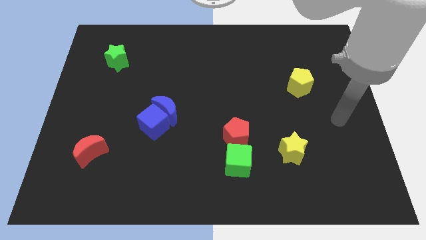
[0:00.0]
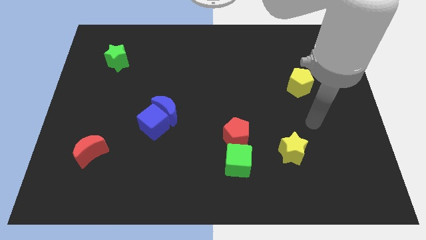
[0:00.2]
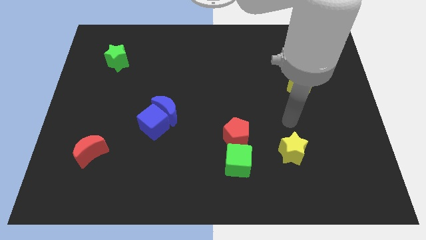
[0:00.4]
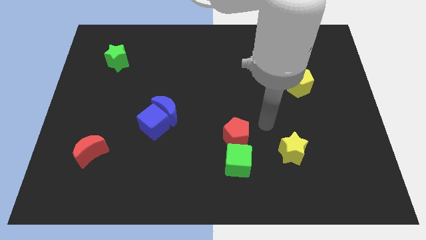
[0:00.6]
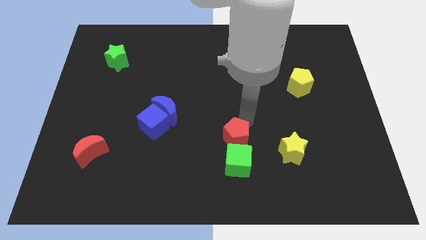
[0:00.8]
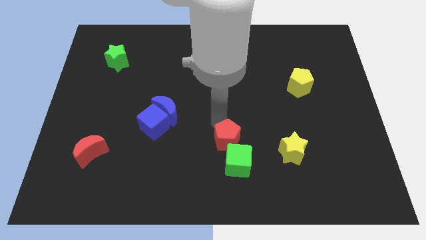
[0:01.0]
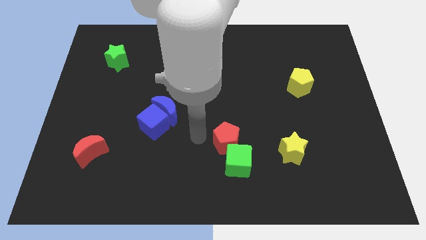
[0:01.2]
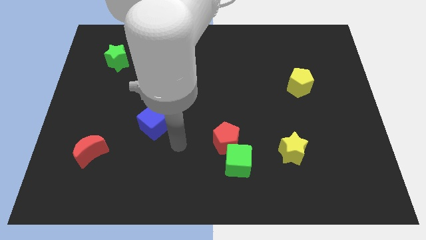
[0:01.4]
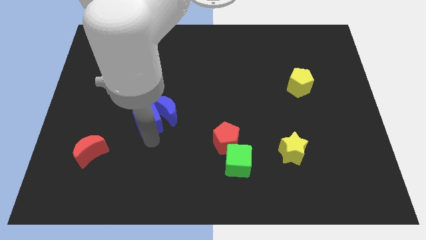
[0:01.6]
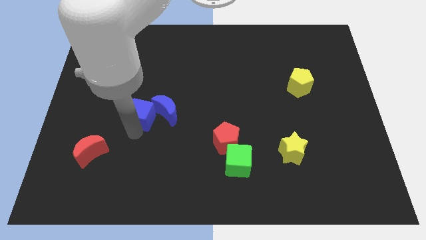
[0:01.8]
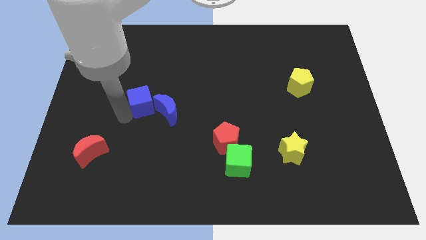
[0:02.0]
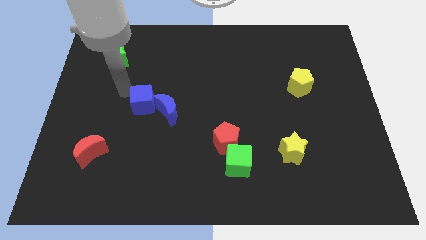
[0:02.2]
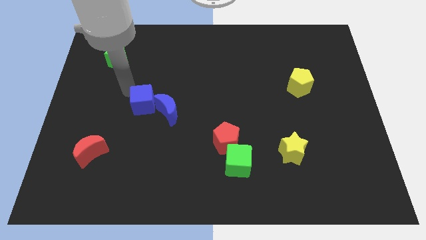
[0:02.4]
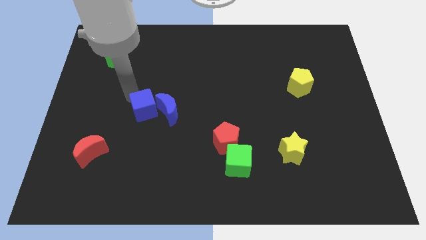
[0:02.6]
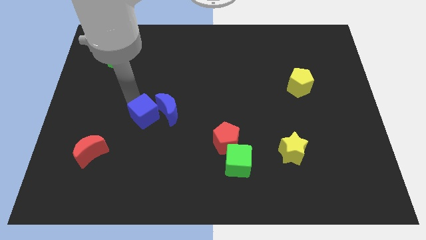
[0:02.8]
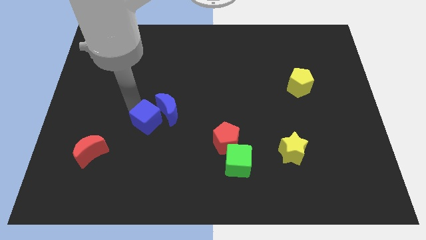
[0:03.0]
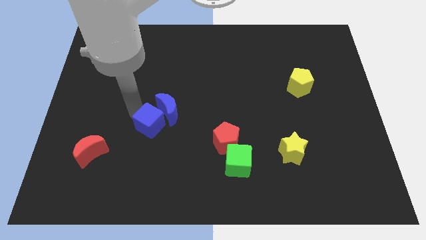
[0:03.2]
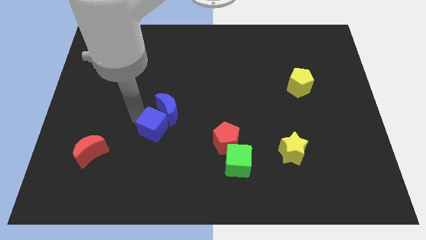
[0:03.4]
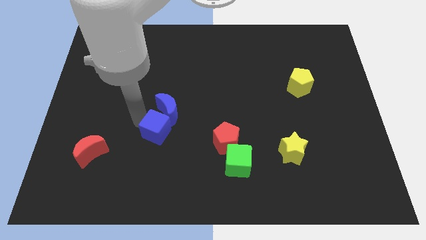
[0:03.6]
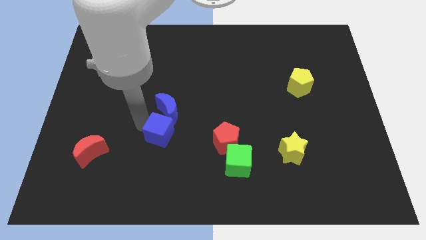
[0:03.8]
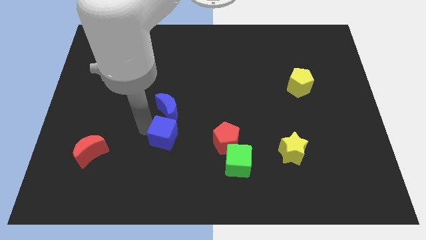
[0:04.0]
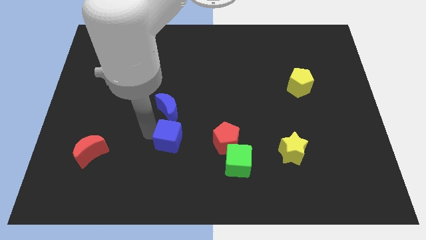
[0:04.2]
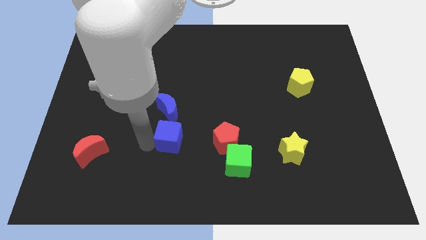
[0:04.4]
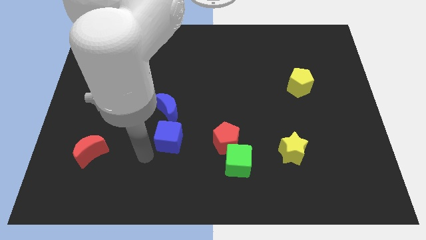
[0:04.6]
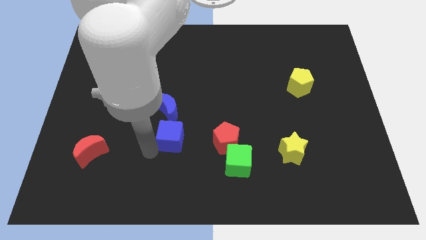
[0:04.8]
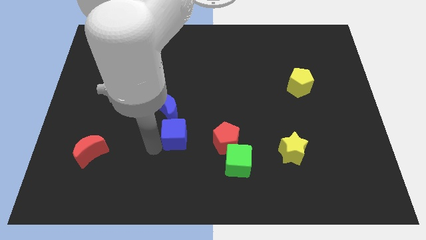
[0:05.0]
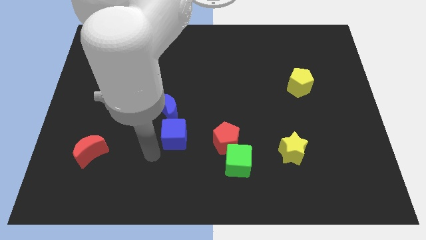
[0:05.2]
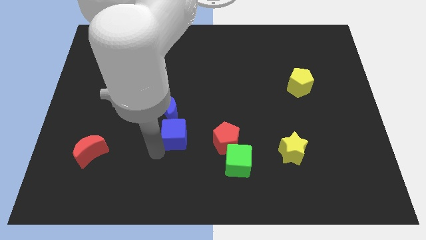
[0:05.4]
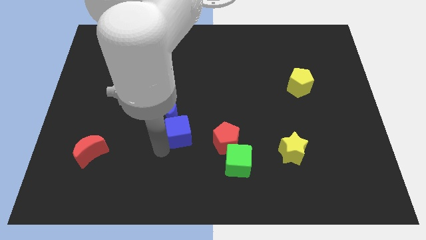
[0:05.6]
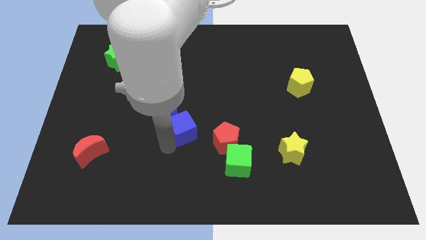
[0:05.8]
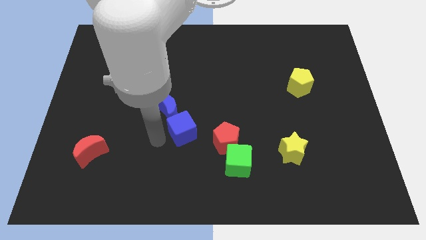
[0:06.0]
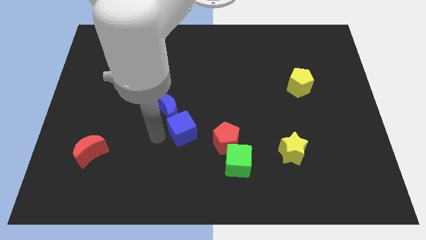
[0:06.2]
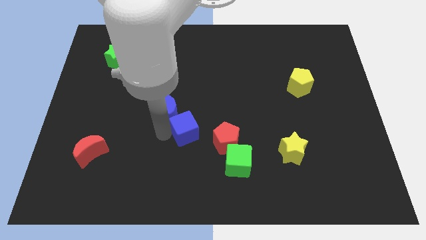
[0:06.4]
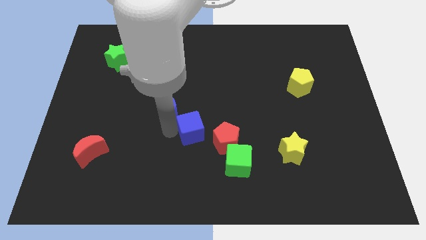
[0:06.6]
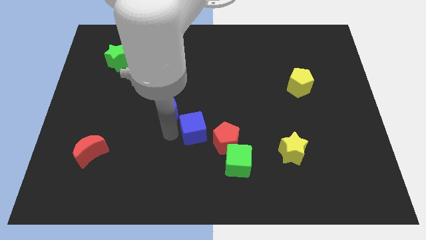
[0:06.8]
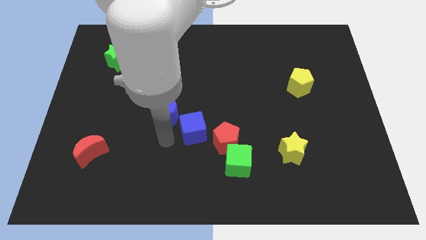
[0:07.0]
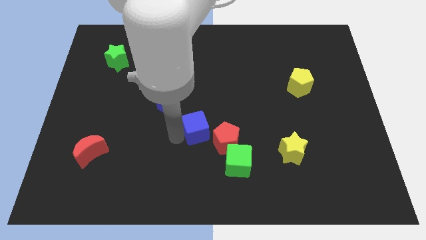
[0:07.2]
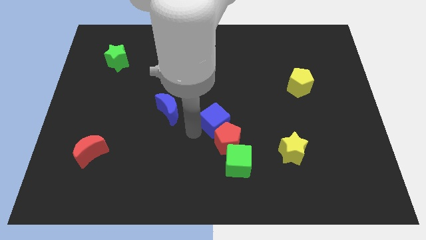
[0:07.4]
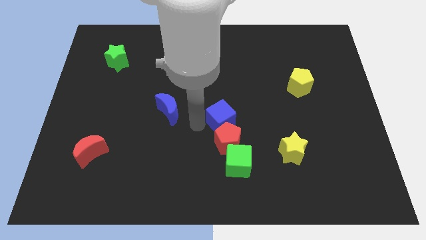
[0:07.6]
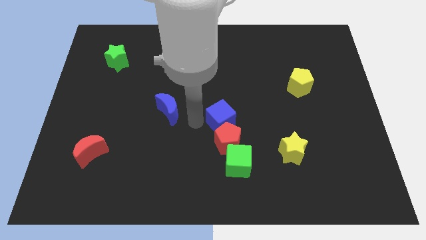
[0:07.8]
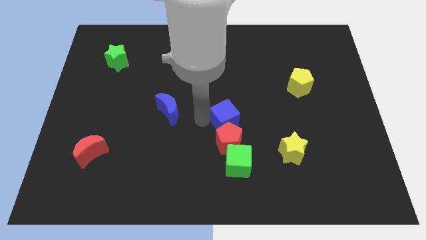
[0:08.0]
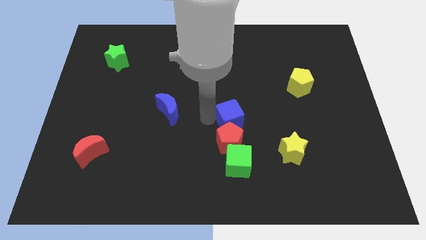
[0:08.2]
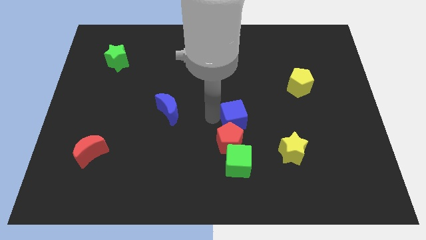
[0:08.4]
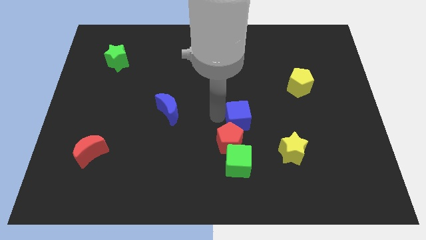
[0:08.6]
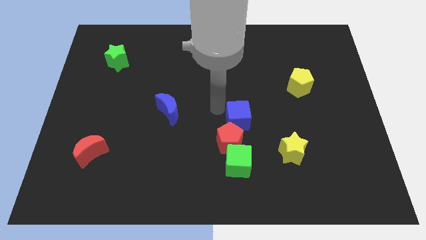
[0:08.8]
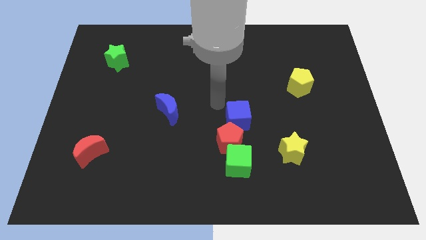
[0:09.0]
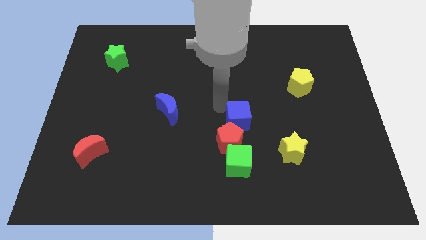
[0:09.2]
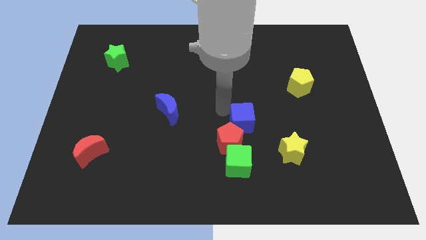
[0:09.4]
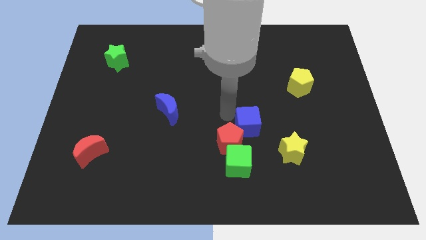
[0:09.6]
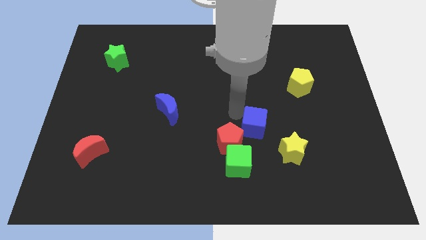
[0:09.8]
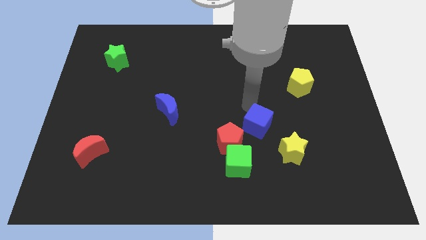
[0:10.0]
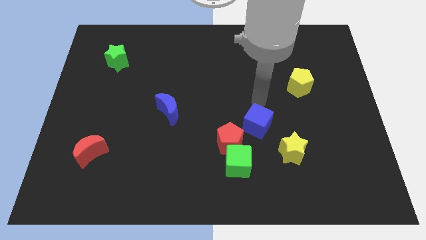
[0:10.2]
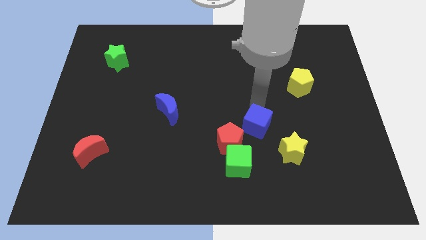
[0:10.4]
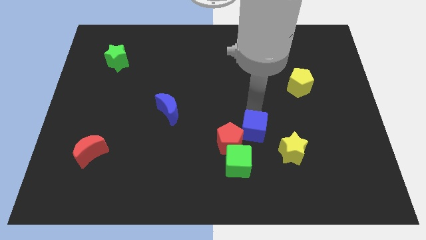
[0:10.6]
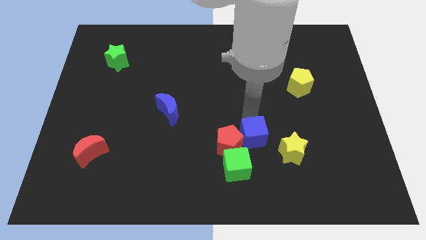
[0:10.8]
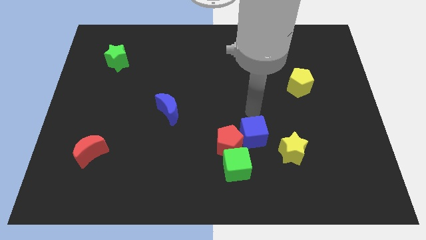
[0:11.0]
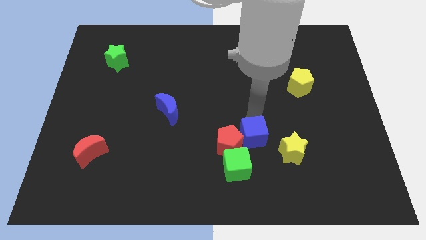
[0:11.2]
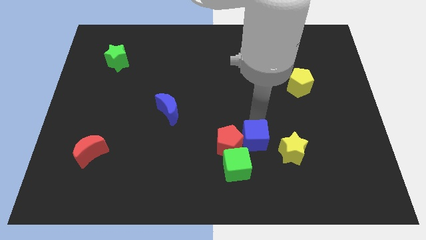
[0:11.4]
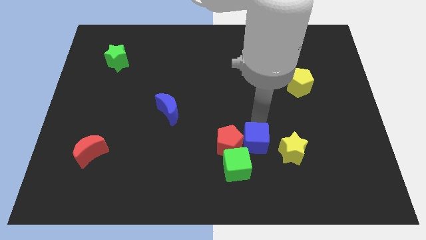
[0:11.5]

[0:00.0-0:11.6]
move the blue cube to the bottom right of the red pentagon

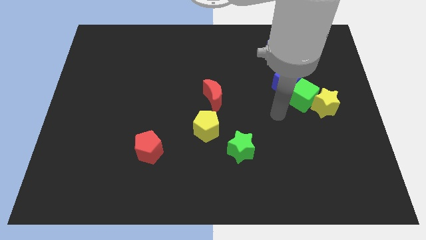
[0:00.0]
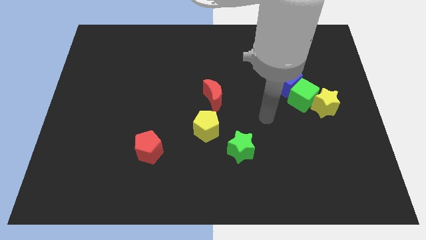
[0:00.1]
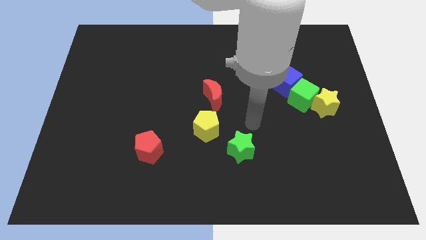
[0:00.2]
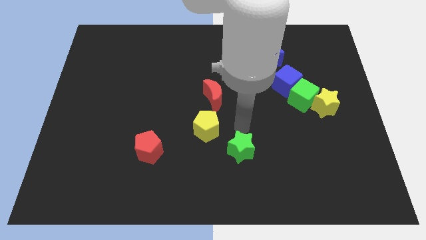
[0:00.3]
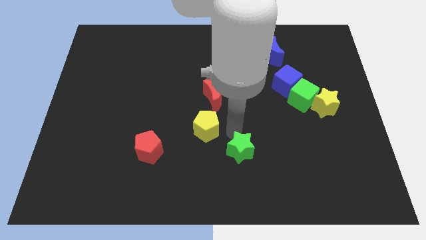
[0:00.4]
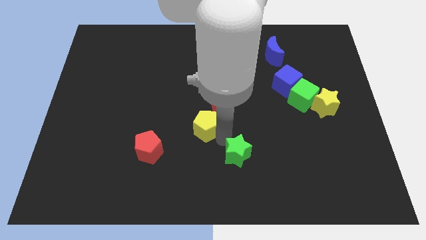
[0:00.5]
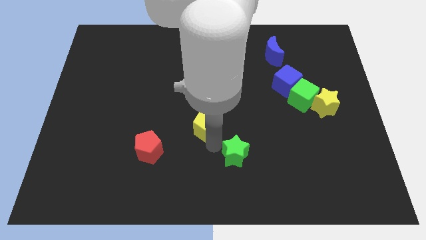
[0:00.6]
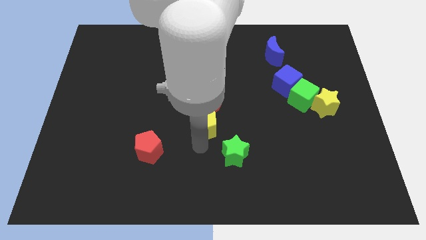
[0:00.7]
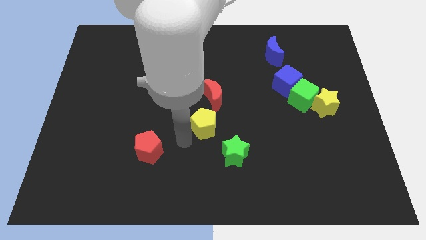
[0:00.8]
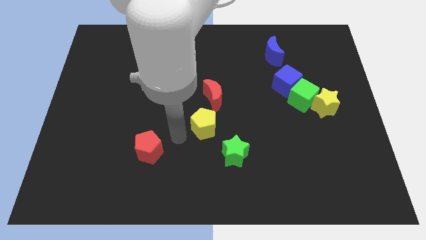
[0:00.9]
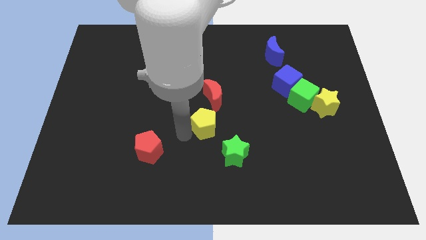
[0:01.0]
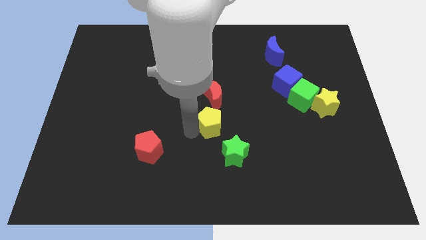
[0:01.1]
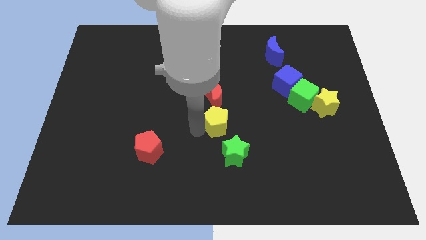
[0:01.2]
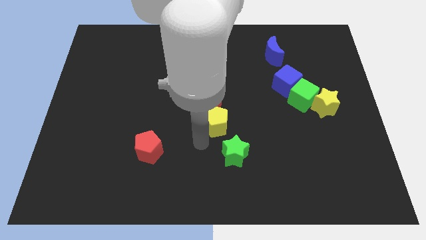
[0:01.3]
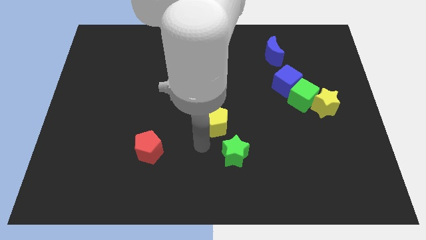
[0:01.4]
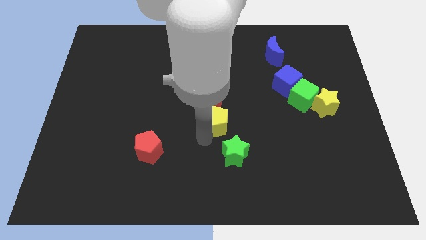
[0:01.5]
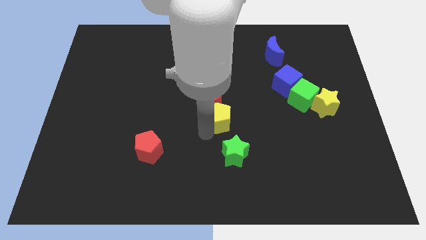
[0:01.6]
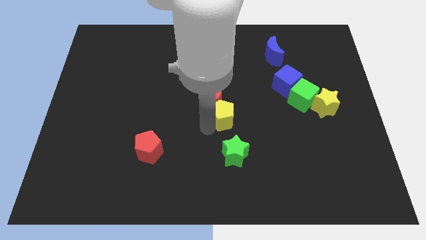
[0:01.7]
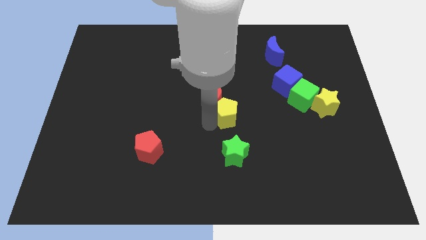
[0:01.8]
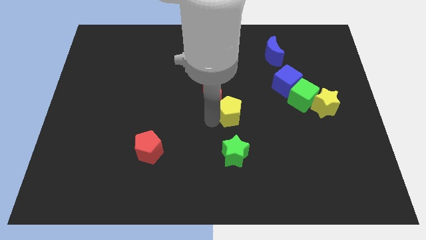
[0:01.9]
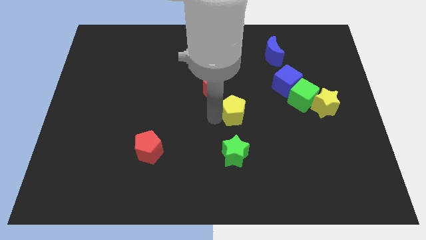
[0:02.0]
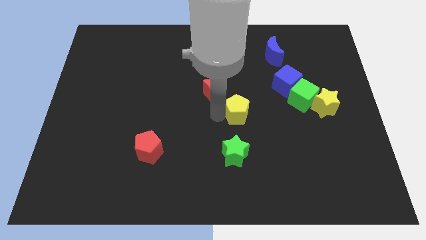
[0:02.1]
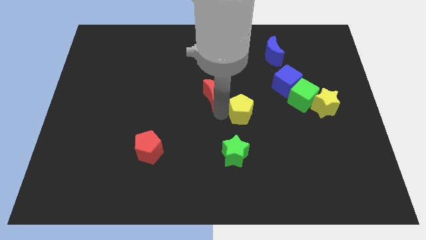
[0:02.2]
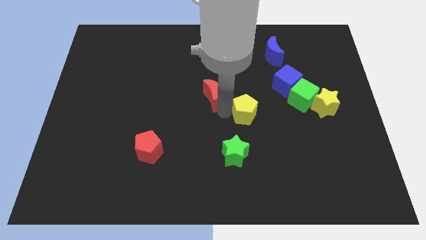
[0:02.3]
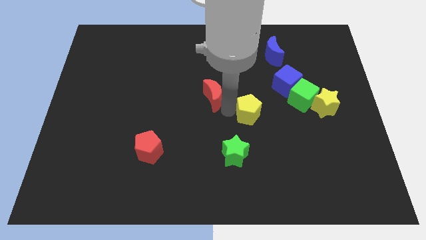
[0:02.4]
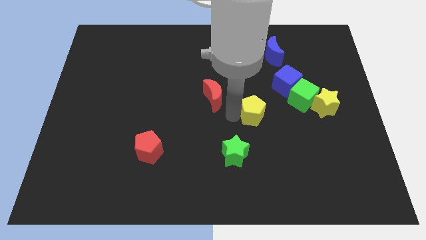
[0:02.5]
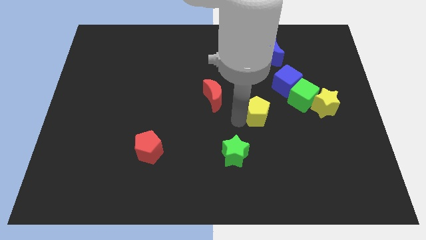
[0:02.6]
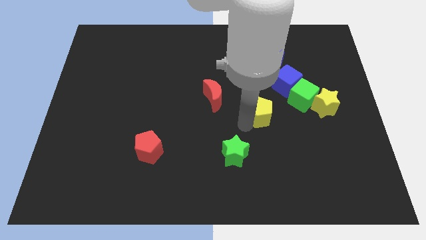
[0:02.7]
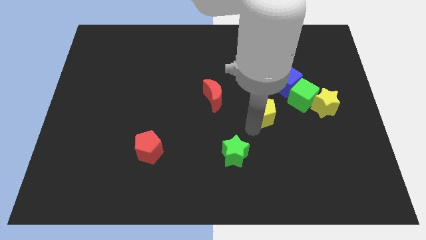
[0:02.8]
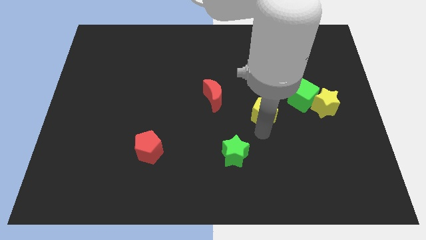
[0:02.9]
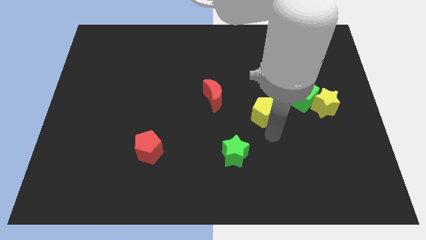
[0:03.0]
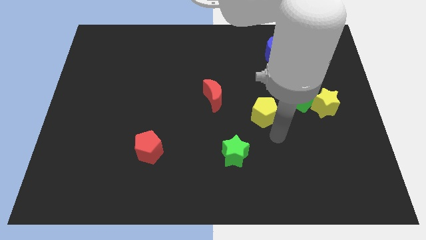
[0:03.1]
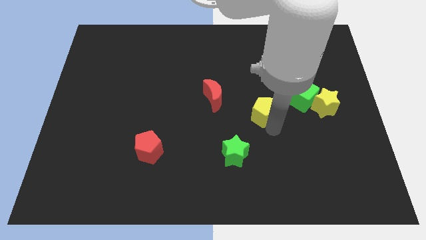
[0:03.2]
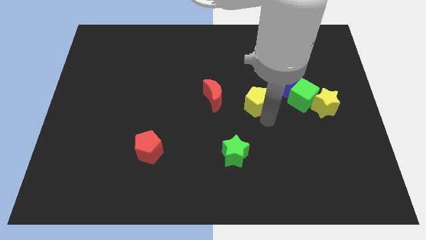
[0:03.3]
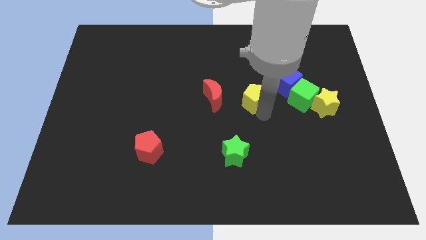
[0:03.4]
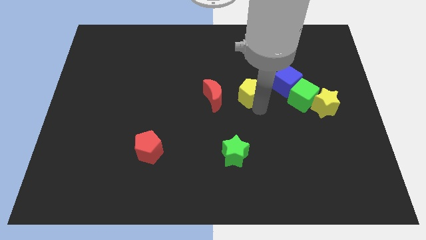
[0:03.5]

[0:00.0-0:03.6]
move the yellow pentagon just left of the blue cube
